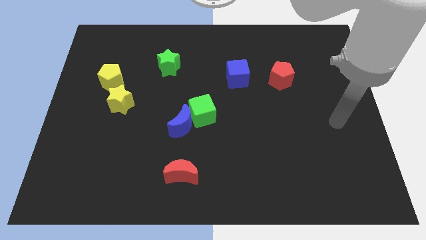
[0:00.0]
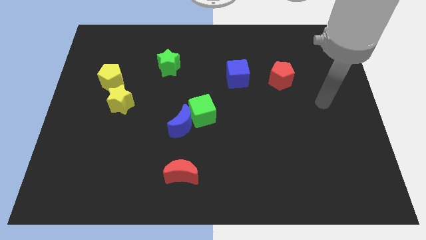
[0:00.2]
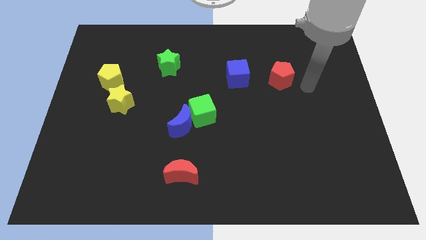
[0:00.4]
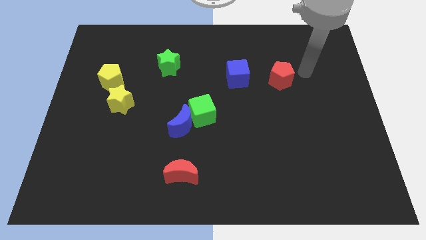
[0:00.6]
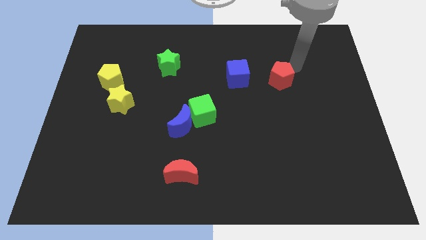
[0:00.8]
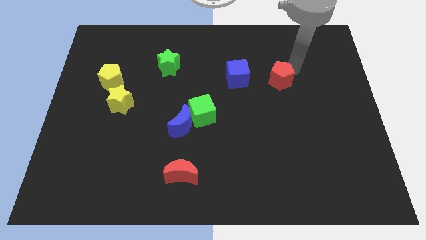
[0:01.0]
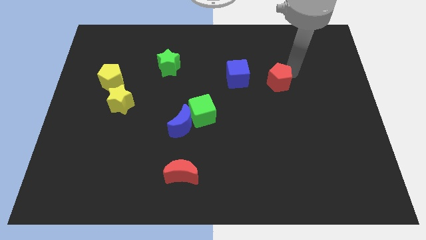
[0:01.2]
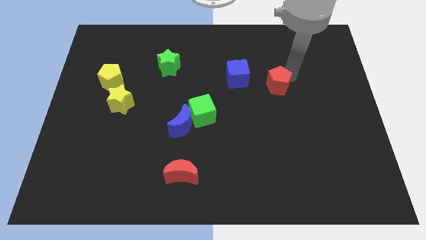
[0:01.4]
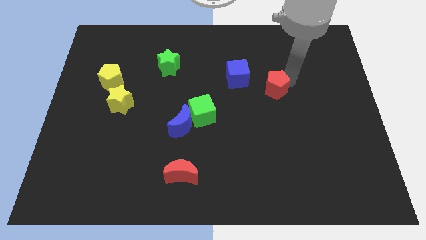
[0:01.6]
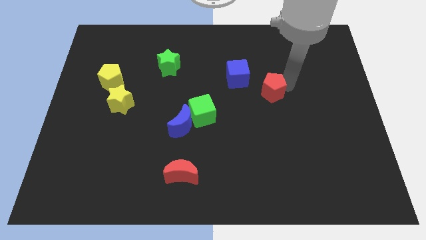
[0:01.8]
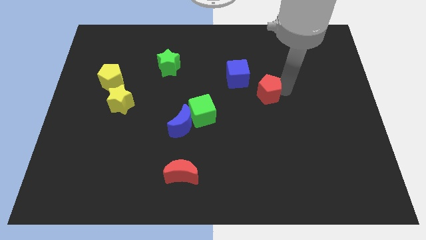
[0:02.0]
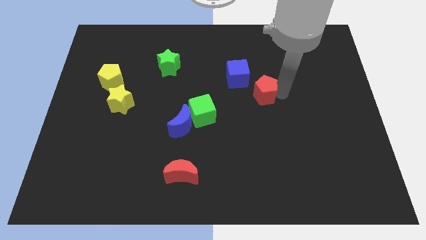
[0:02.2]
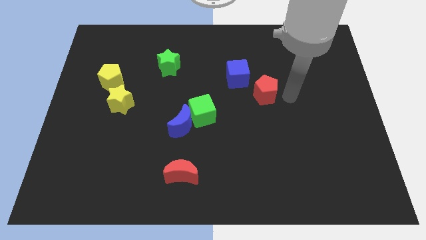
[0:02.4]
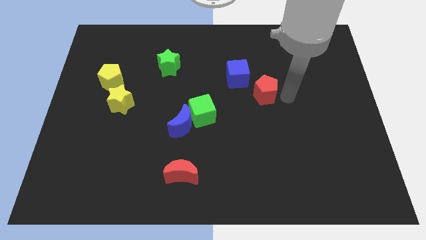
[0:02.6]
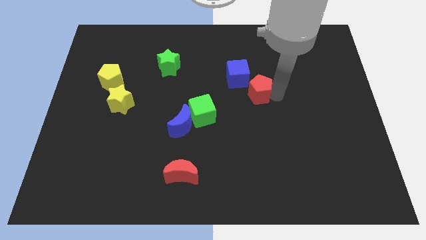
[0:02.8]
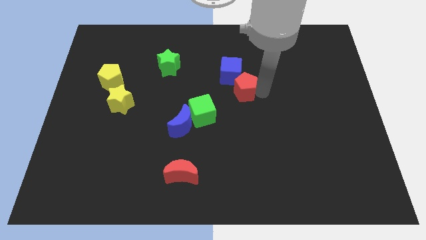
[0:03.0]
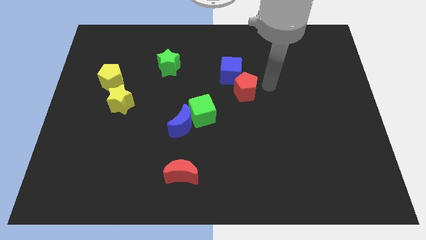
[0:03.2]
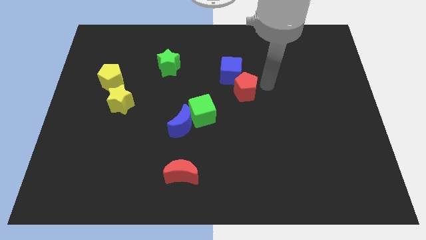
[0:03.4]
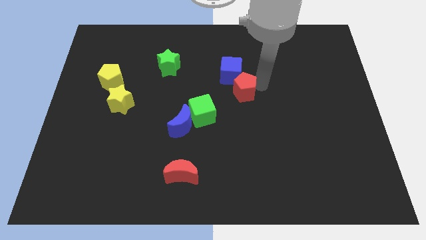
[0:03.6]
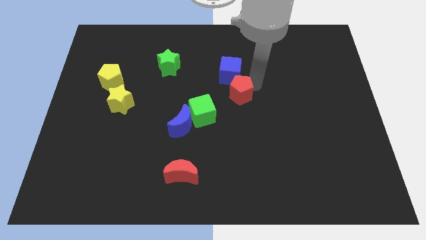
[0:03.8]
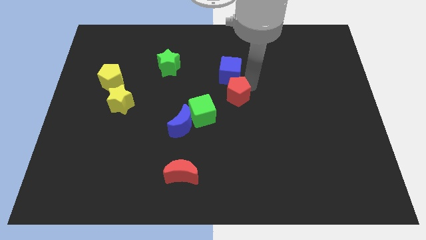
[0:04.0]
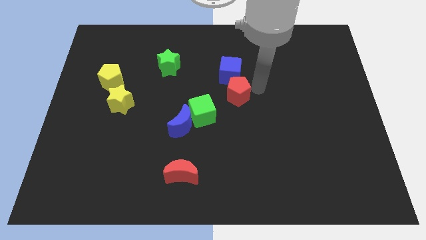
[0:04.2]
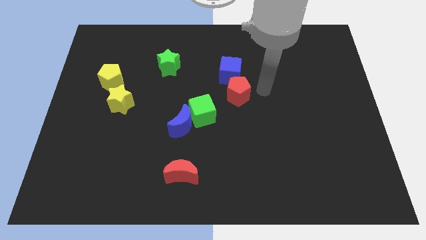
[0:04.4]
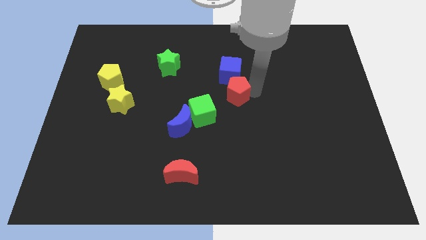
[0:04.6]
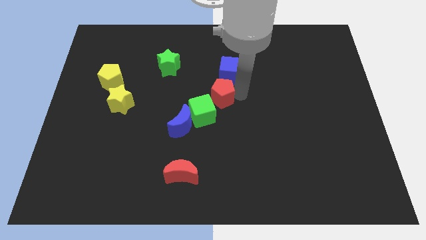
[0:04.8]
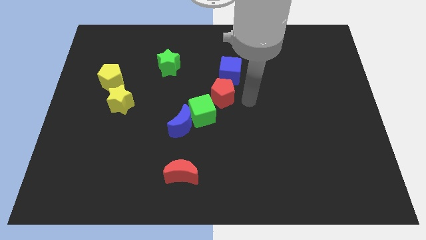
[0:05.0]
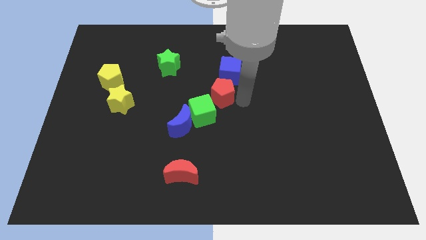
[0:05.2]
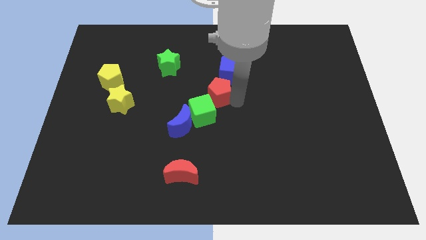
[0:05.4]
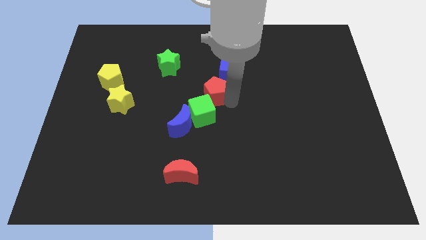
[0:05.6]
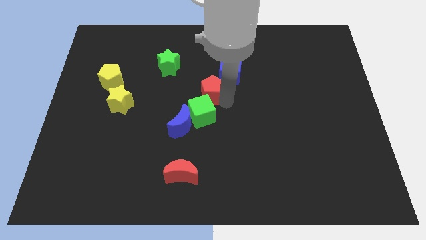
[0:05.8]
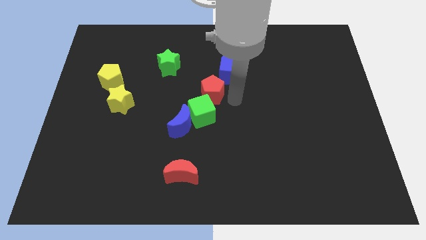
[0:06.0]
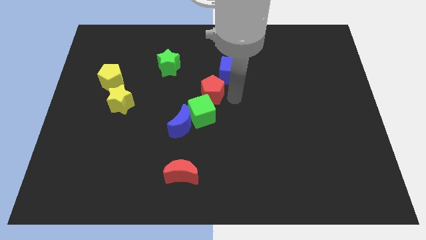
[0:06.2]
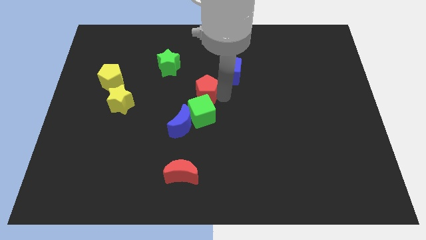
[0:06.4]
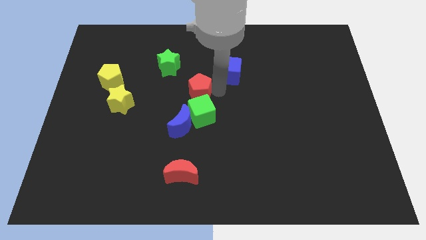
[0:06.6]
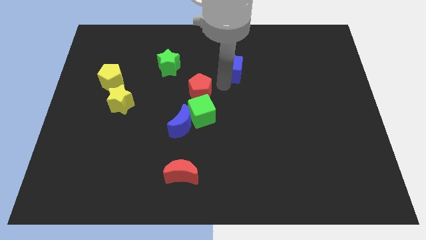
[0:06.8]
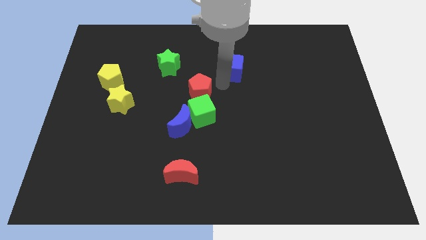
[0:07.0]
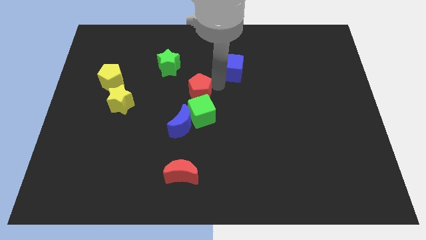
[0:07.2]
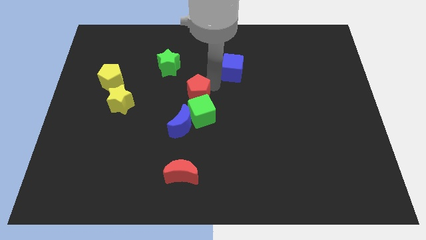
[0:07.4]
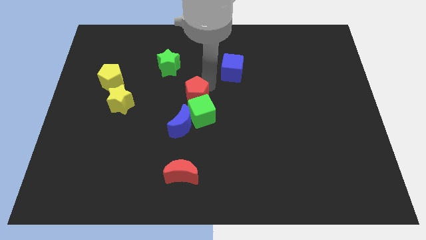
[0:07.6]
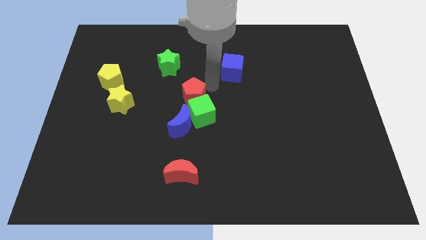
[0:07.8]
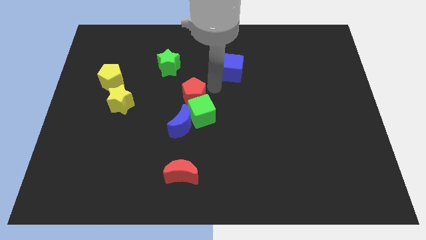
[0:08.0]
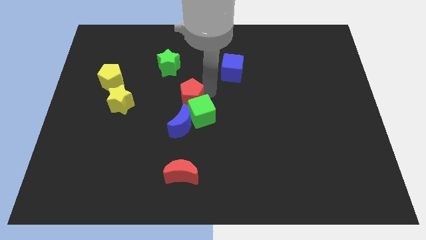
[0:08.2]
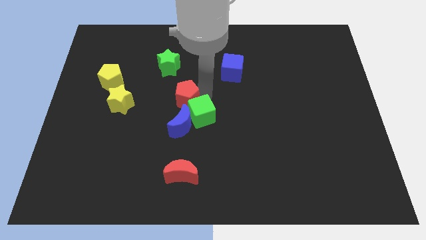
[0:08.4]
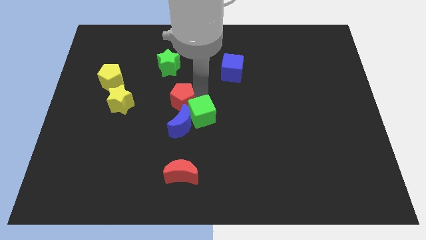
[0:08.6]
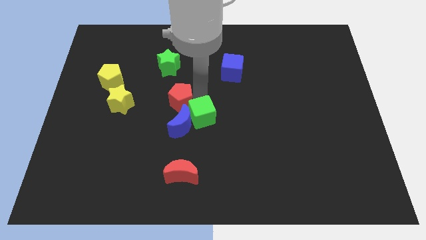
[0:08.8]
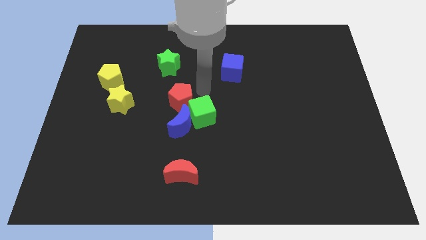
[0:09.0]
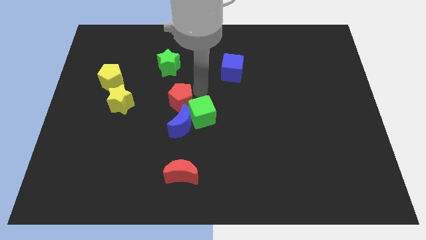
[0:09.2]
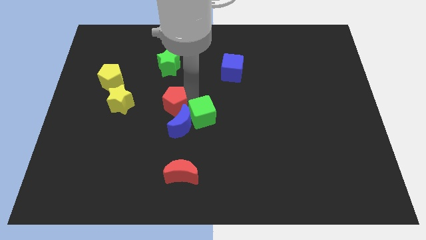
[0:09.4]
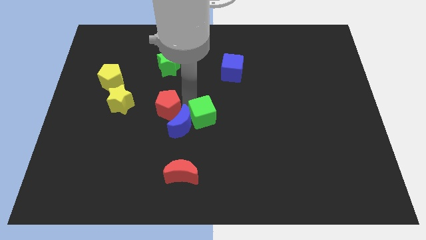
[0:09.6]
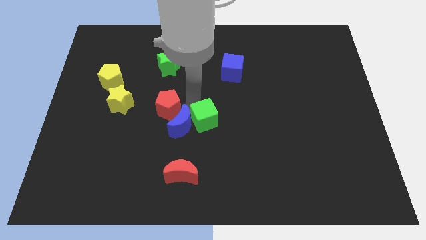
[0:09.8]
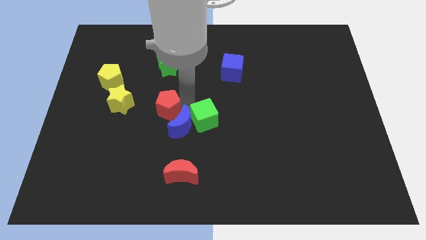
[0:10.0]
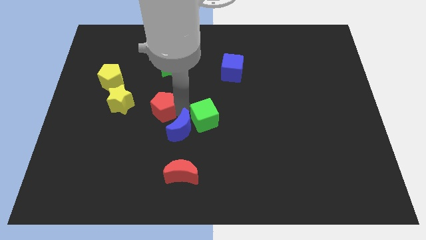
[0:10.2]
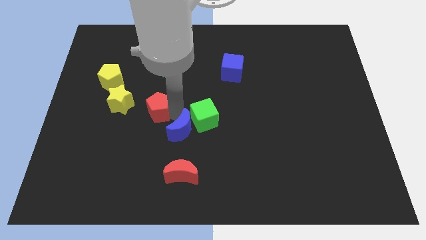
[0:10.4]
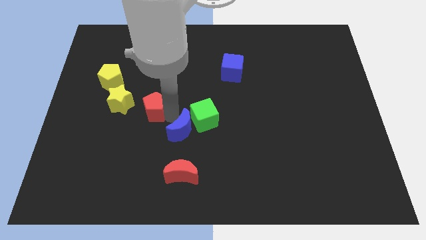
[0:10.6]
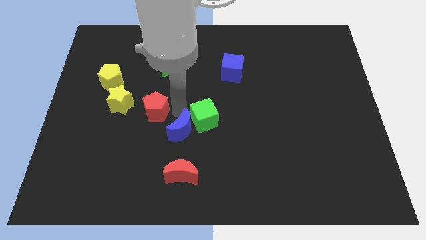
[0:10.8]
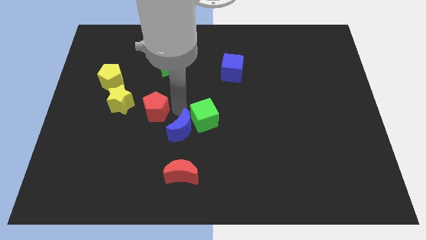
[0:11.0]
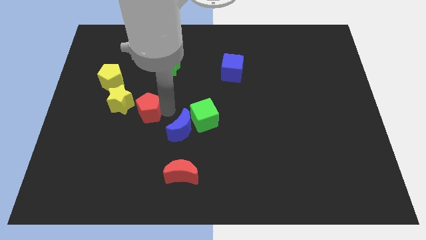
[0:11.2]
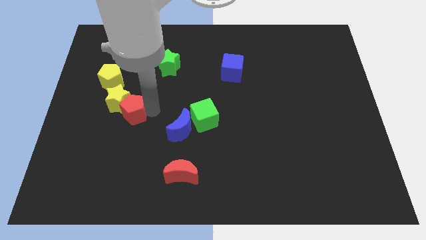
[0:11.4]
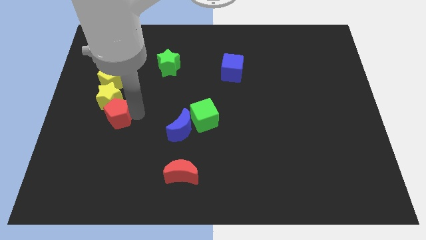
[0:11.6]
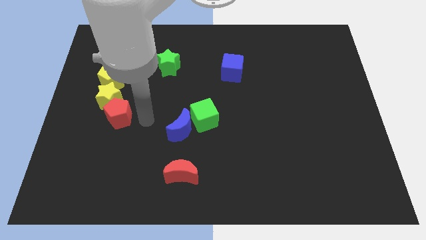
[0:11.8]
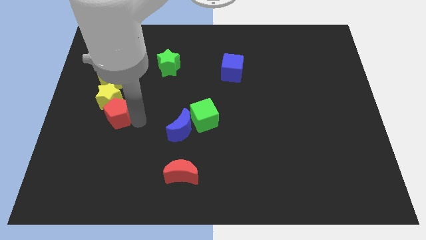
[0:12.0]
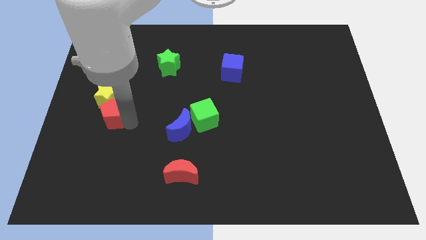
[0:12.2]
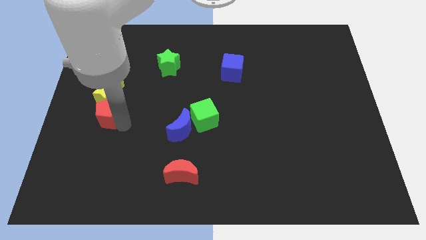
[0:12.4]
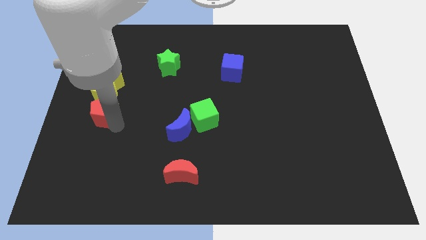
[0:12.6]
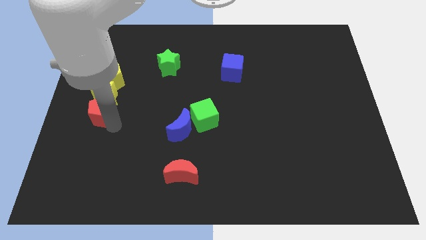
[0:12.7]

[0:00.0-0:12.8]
put the red pentagon to the left side
